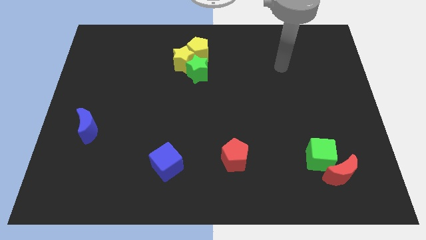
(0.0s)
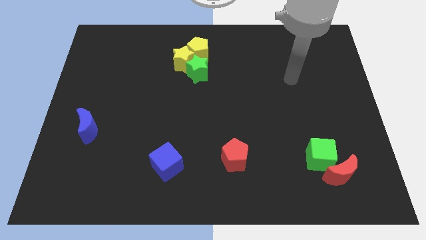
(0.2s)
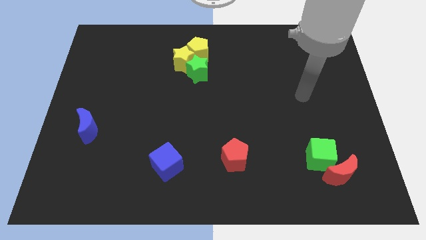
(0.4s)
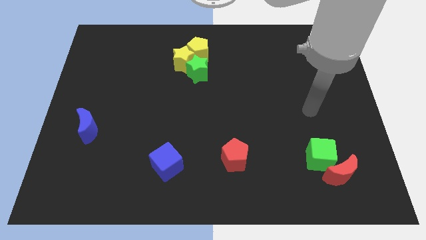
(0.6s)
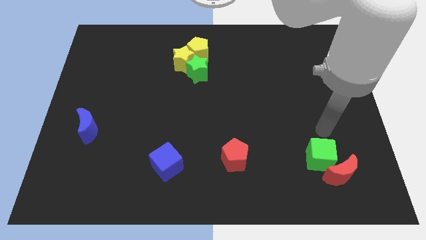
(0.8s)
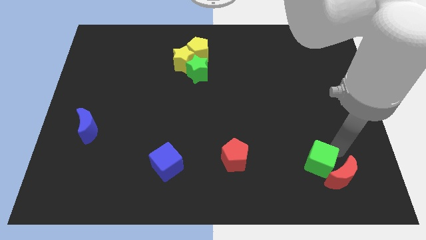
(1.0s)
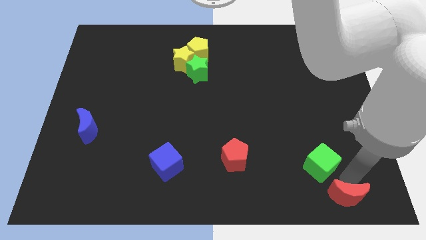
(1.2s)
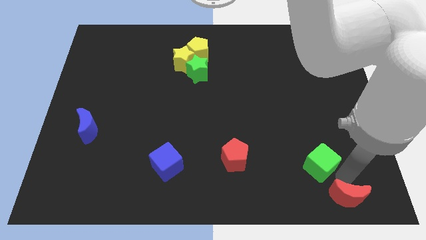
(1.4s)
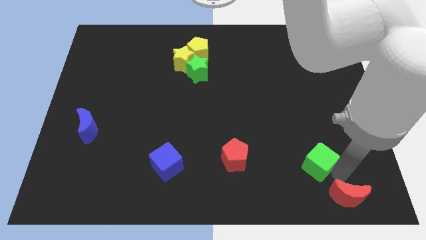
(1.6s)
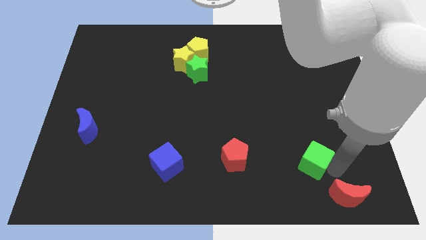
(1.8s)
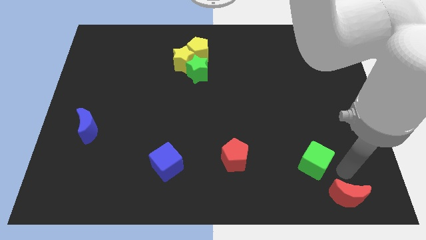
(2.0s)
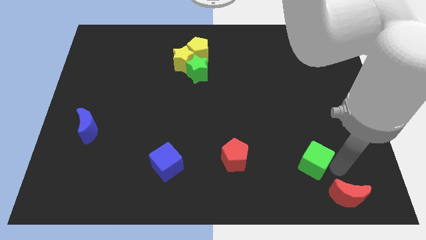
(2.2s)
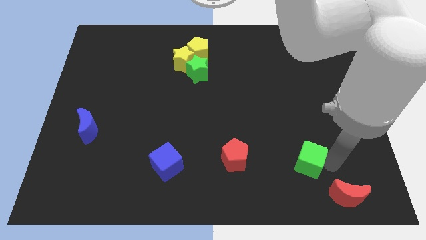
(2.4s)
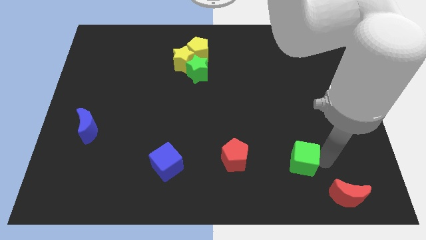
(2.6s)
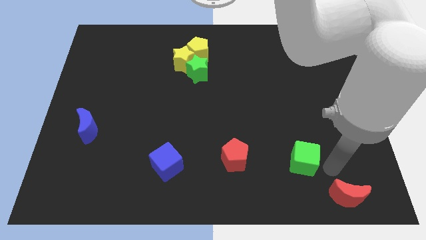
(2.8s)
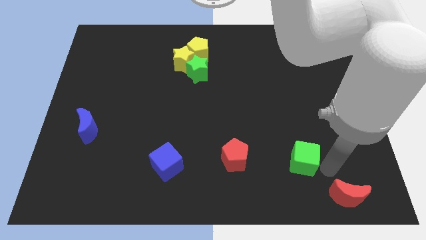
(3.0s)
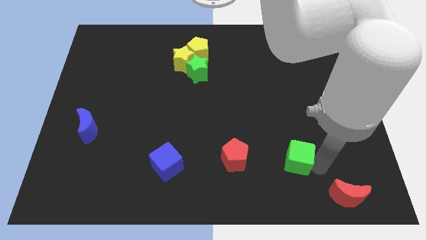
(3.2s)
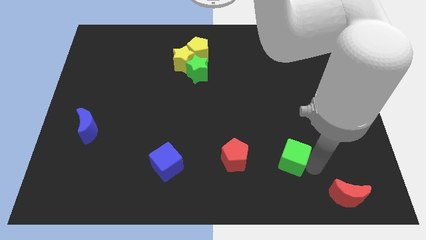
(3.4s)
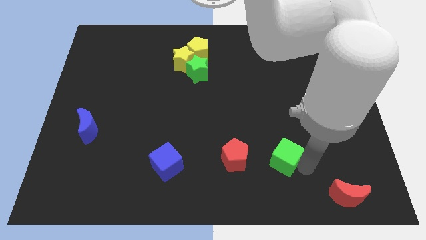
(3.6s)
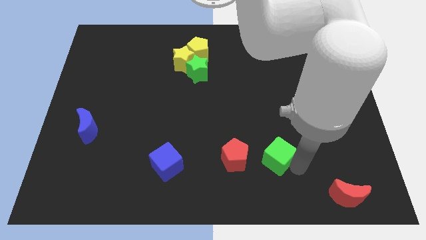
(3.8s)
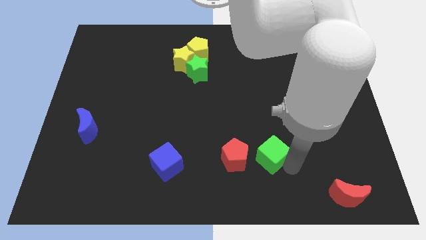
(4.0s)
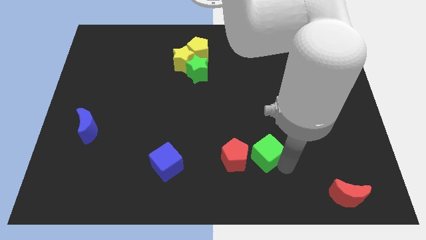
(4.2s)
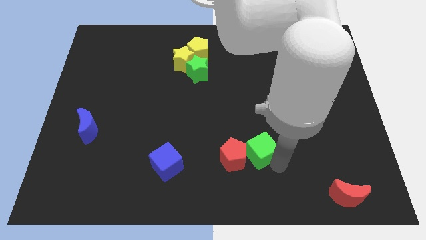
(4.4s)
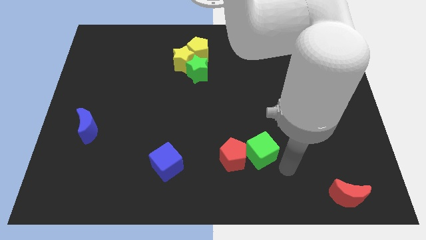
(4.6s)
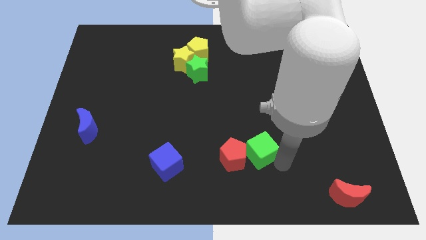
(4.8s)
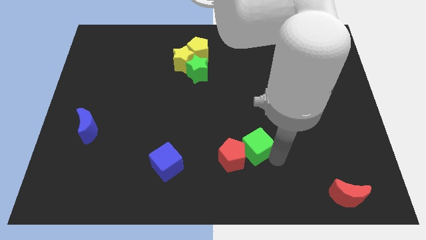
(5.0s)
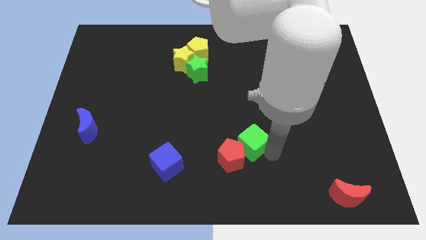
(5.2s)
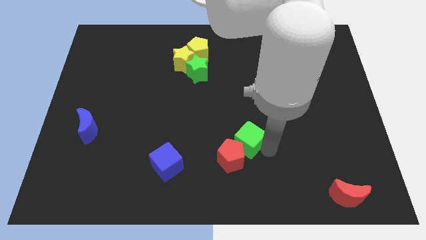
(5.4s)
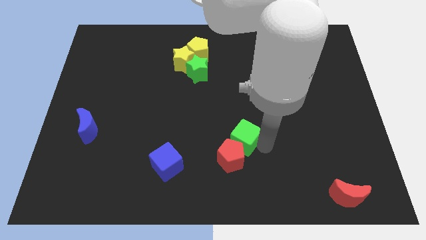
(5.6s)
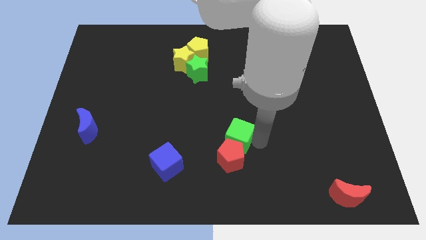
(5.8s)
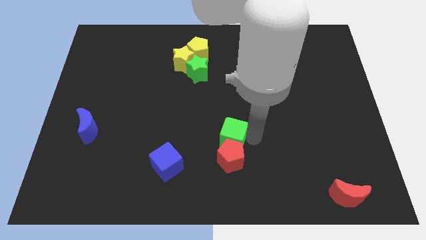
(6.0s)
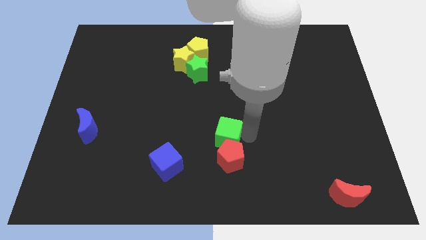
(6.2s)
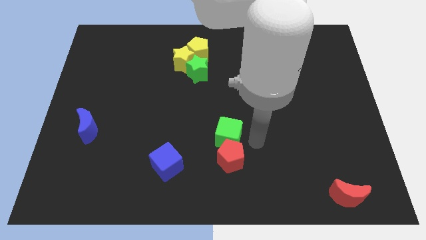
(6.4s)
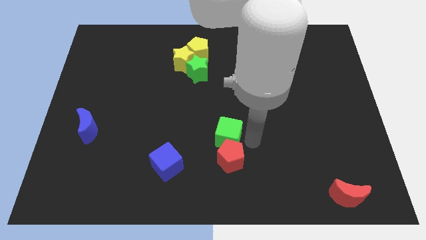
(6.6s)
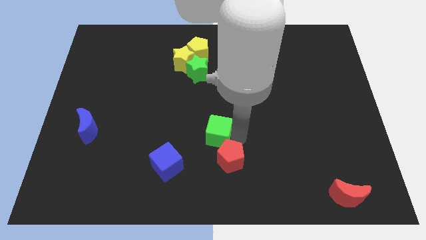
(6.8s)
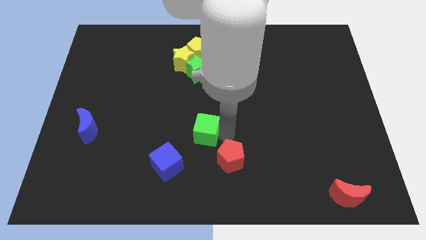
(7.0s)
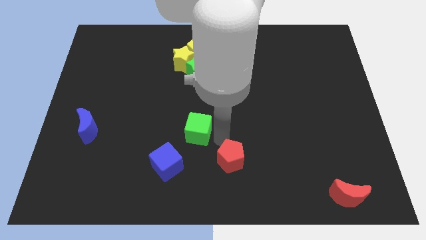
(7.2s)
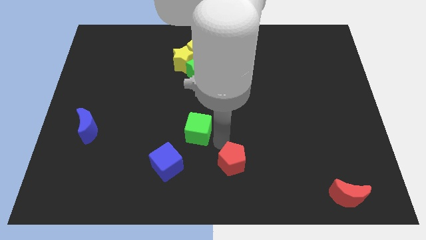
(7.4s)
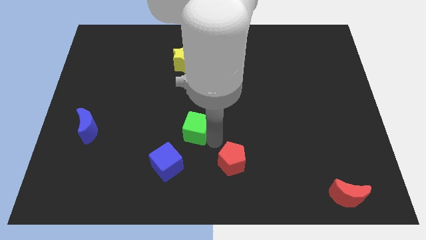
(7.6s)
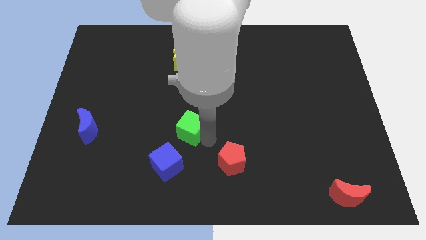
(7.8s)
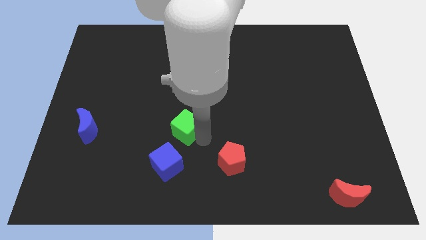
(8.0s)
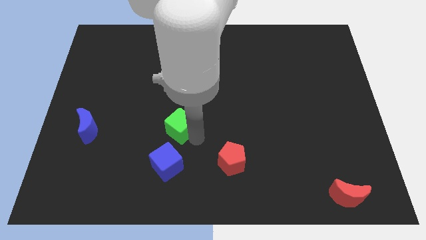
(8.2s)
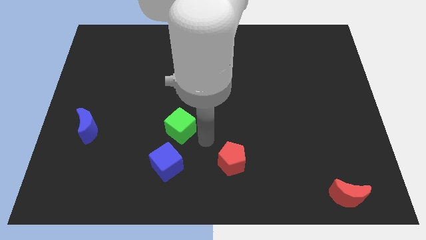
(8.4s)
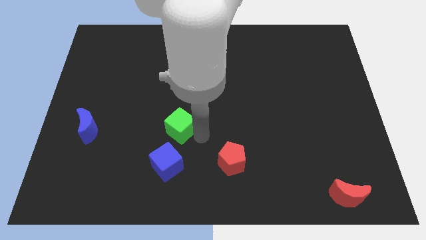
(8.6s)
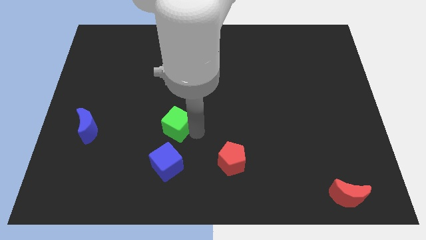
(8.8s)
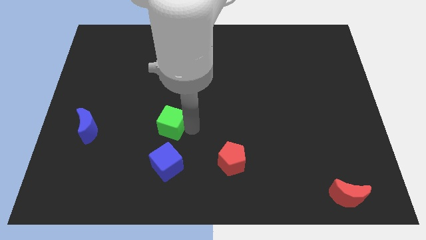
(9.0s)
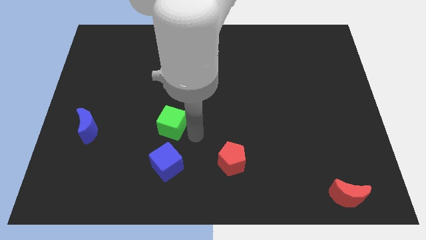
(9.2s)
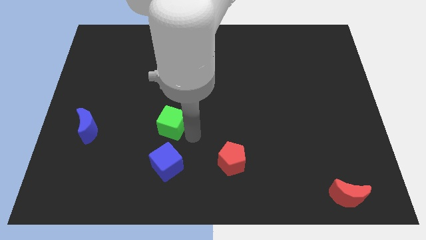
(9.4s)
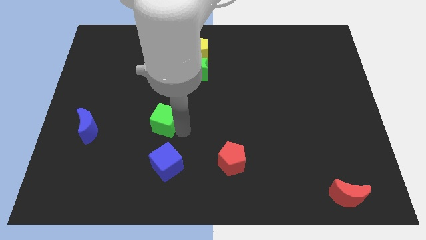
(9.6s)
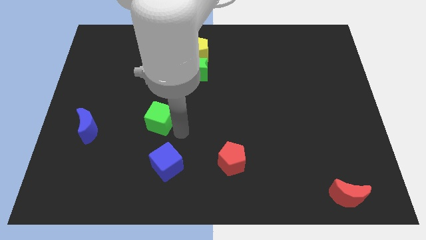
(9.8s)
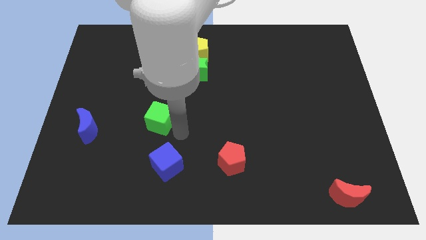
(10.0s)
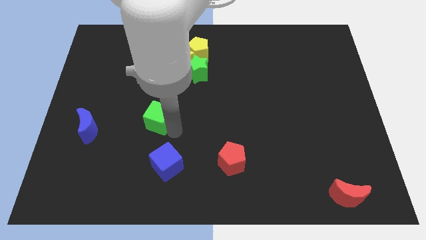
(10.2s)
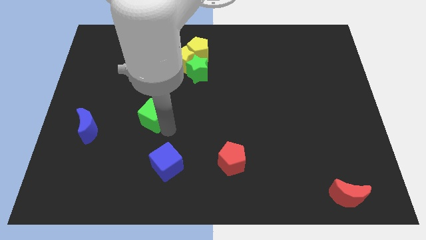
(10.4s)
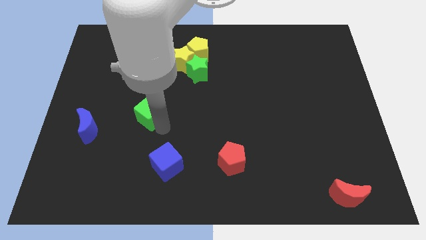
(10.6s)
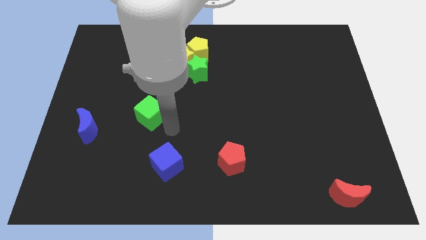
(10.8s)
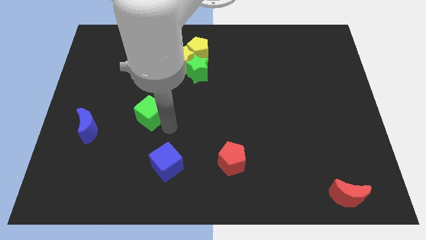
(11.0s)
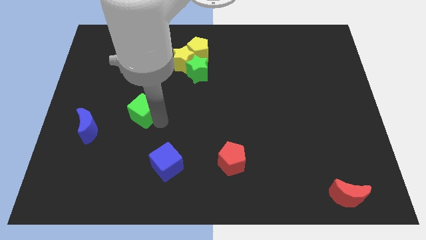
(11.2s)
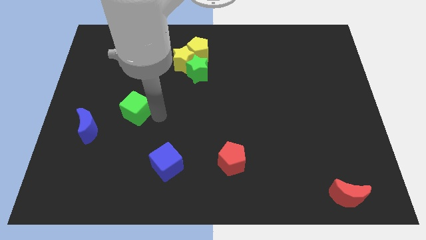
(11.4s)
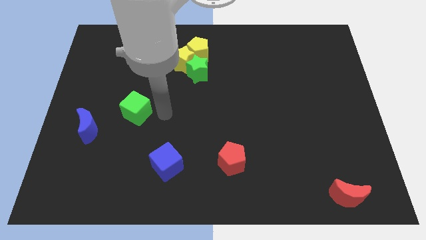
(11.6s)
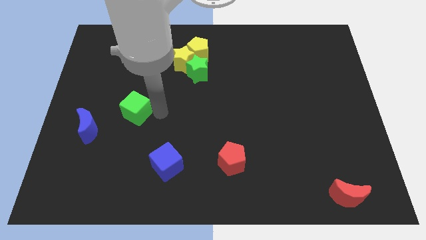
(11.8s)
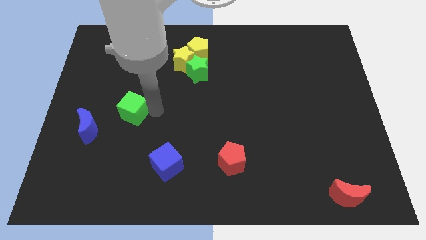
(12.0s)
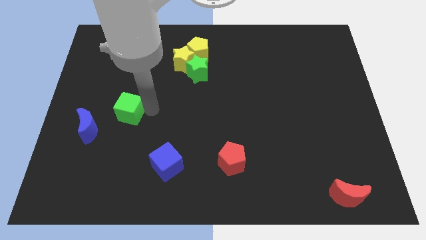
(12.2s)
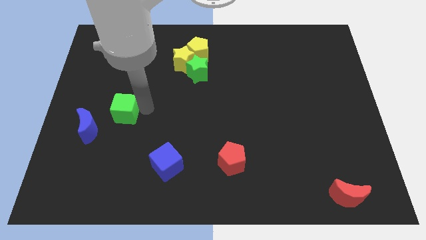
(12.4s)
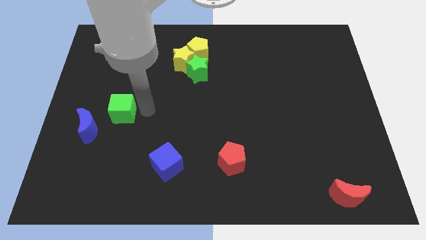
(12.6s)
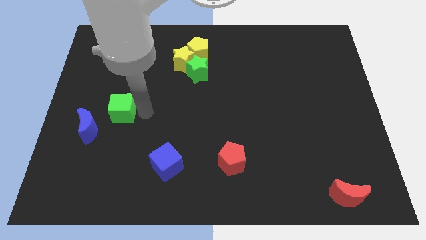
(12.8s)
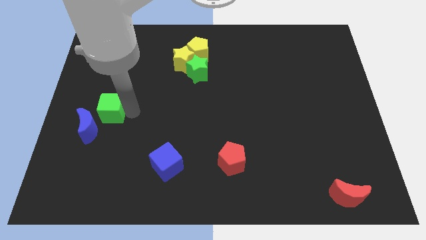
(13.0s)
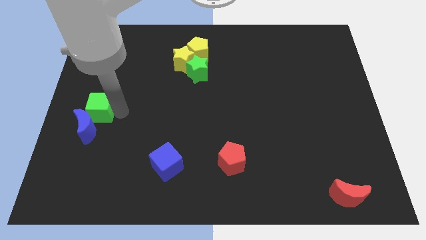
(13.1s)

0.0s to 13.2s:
put the green cube to the center left
